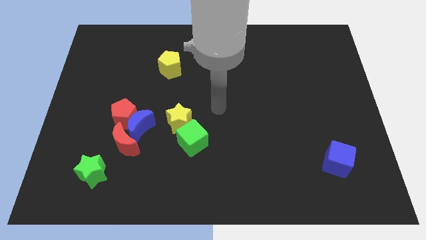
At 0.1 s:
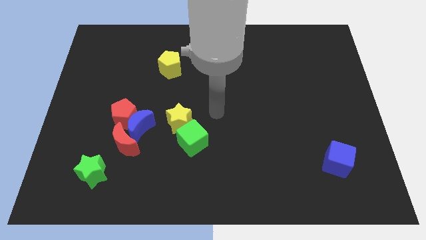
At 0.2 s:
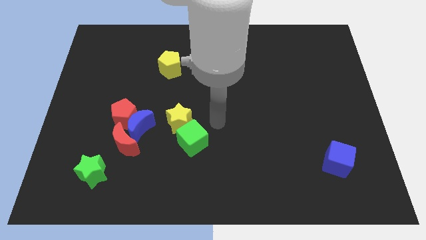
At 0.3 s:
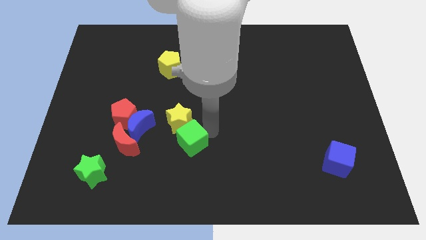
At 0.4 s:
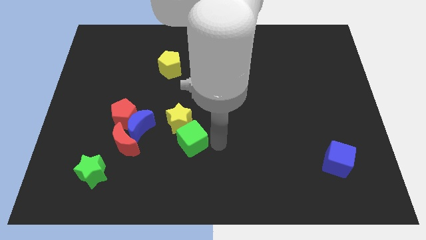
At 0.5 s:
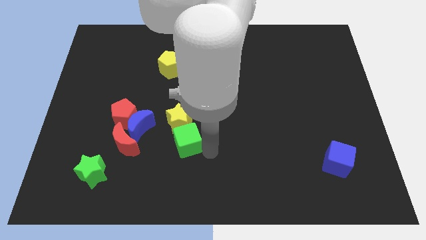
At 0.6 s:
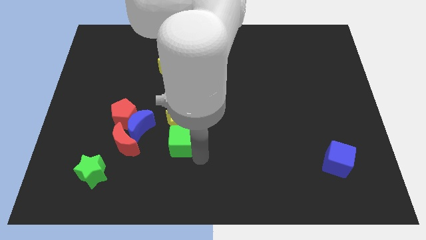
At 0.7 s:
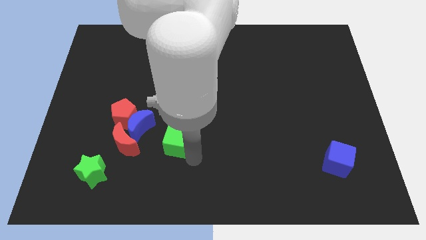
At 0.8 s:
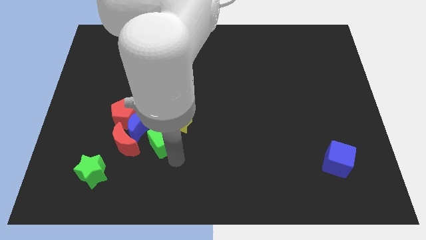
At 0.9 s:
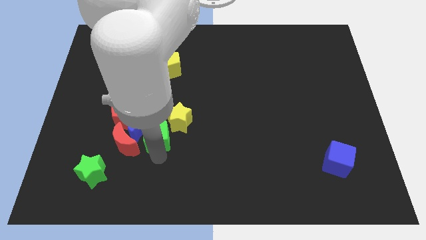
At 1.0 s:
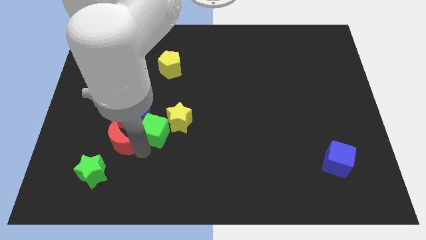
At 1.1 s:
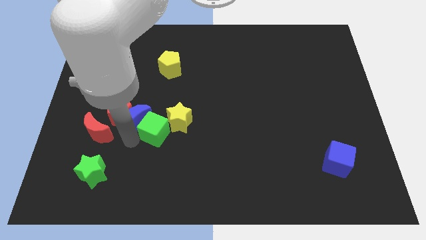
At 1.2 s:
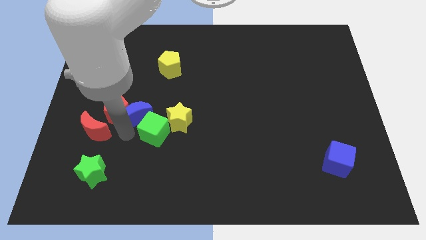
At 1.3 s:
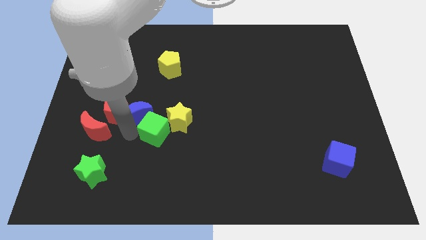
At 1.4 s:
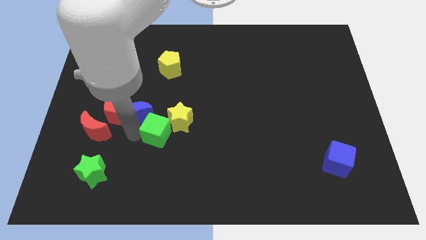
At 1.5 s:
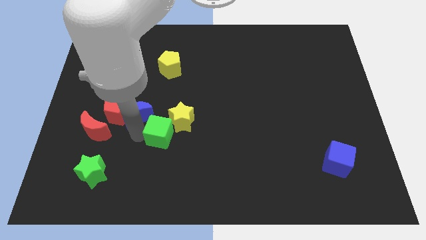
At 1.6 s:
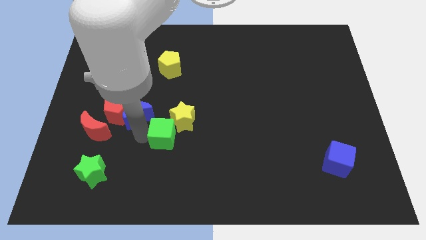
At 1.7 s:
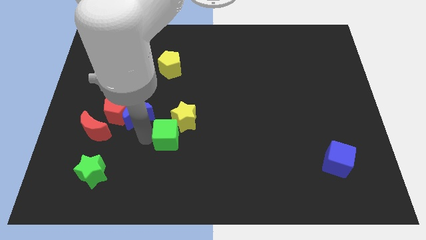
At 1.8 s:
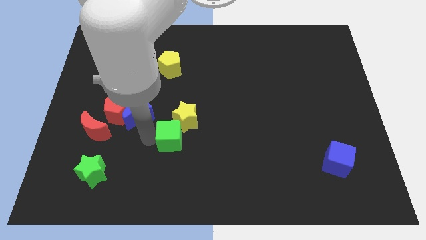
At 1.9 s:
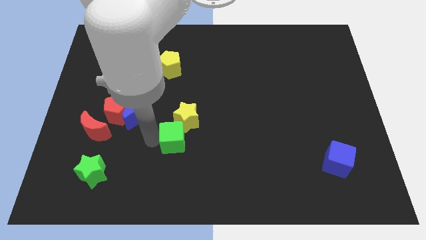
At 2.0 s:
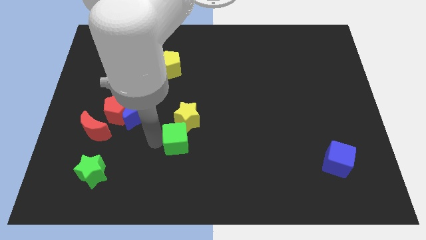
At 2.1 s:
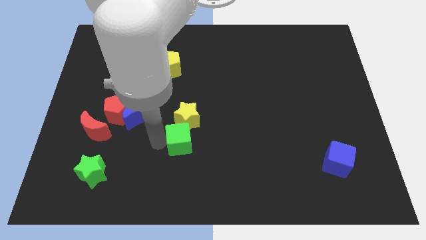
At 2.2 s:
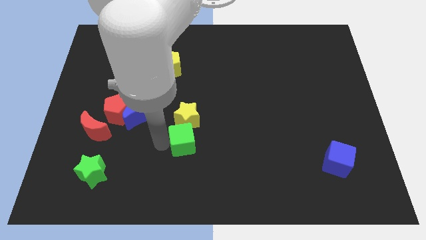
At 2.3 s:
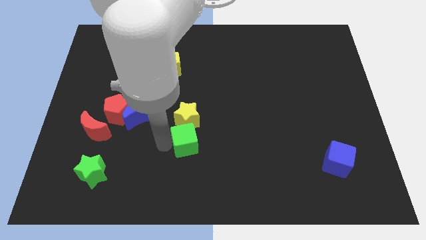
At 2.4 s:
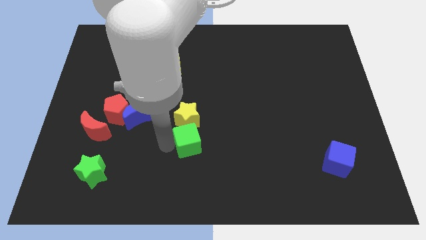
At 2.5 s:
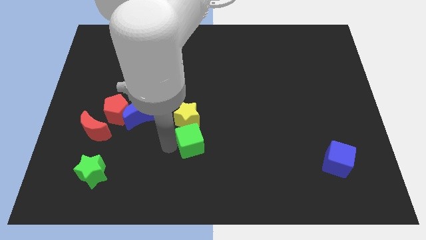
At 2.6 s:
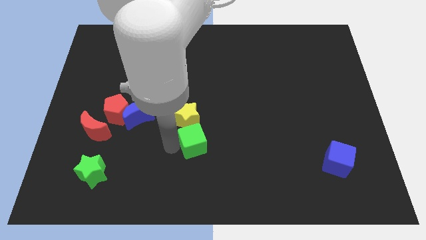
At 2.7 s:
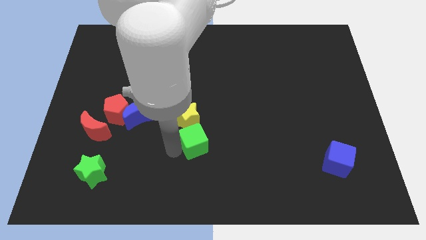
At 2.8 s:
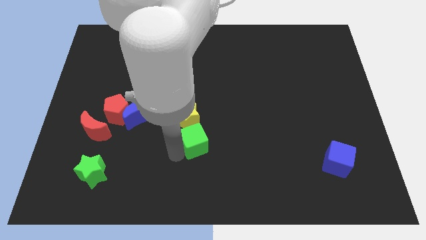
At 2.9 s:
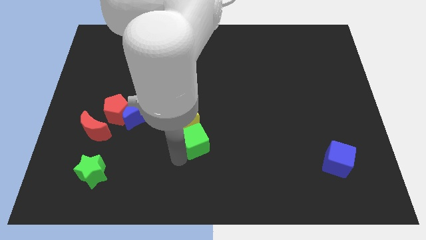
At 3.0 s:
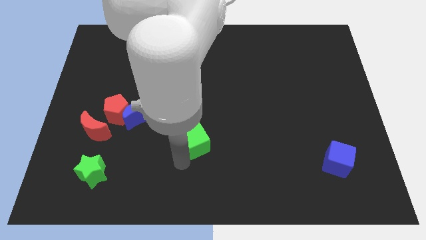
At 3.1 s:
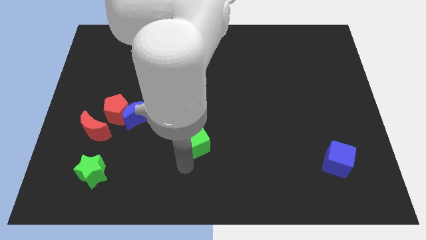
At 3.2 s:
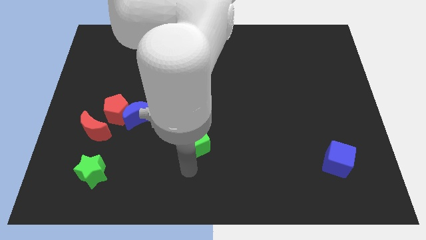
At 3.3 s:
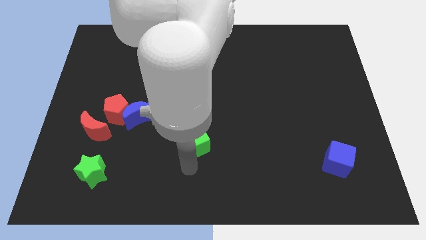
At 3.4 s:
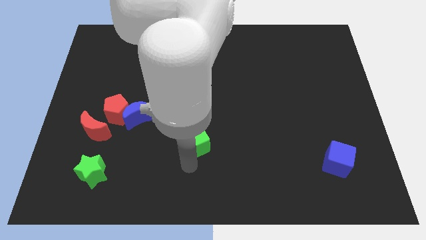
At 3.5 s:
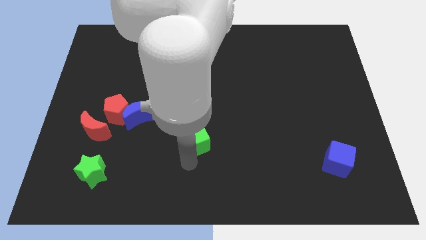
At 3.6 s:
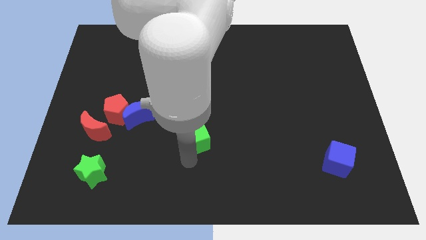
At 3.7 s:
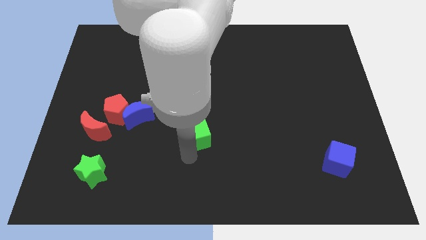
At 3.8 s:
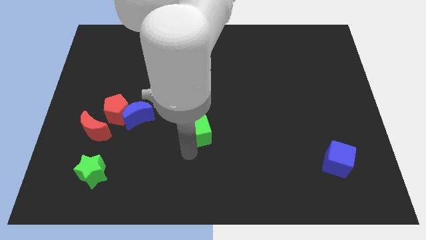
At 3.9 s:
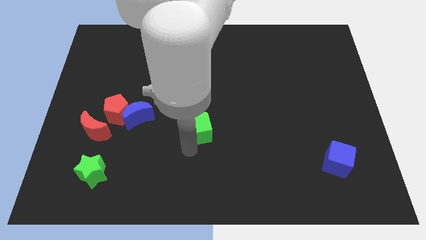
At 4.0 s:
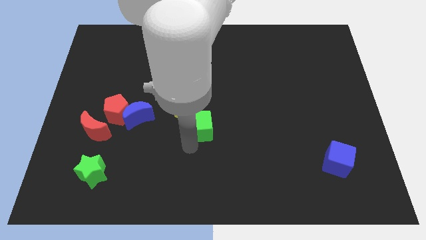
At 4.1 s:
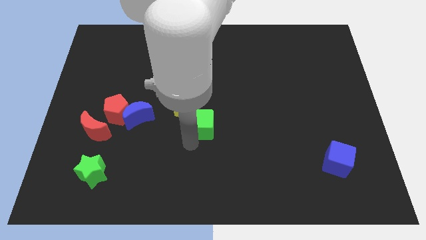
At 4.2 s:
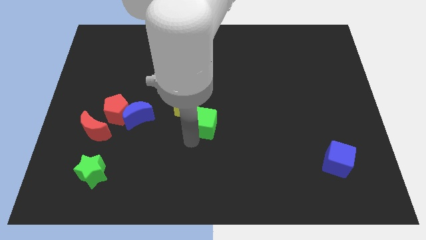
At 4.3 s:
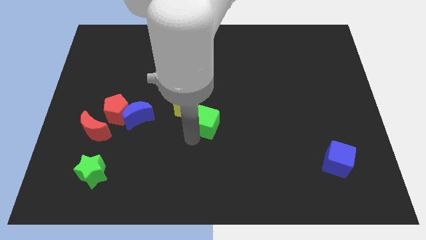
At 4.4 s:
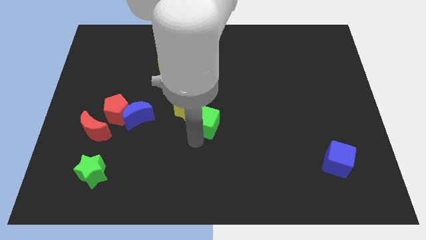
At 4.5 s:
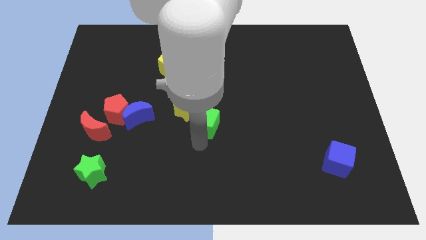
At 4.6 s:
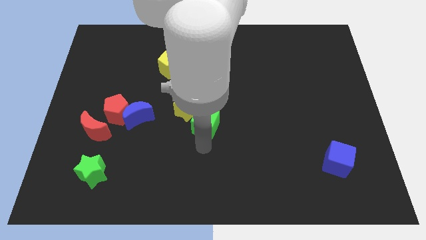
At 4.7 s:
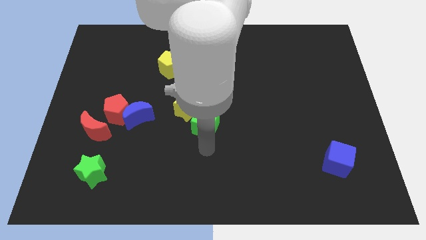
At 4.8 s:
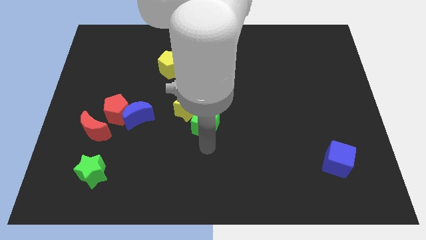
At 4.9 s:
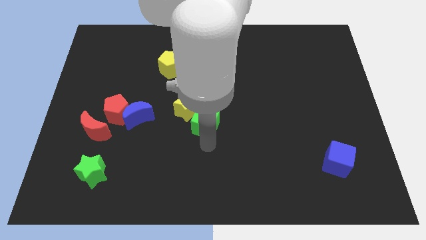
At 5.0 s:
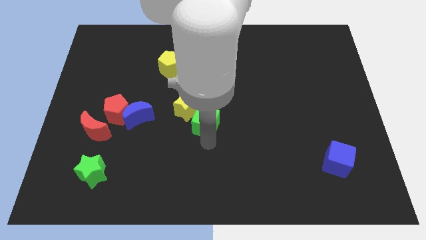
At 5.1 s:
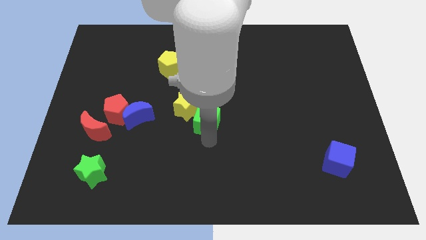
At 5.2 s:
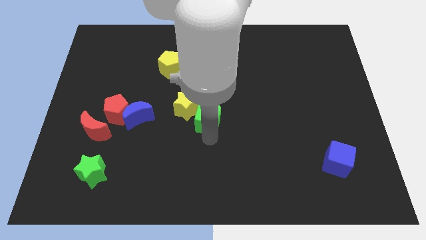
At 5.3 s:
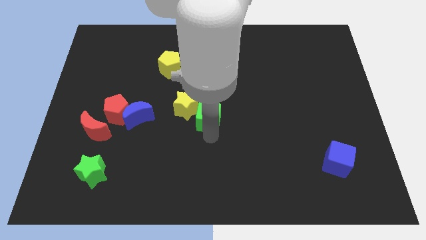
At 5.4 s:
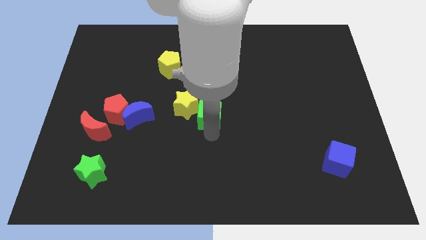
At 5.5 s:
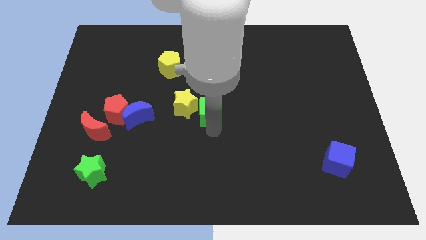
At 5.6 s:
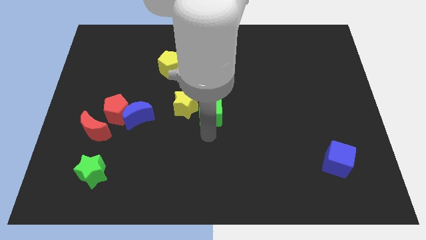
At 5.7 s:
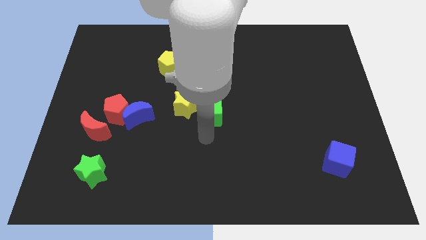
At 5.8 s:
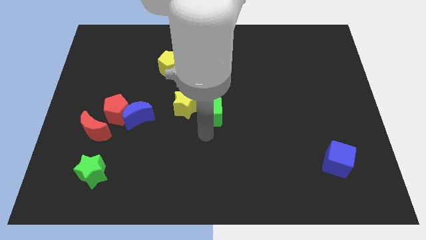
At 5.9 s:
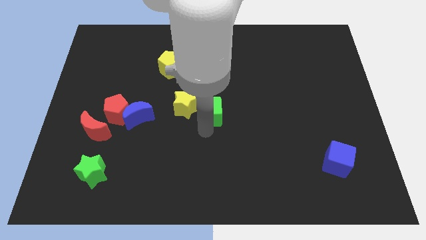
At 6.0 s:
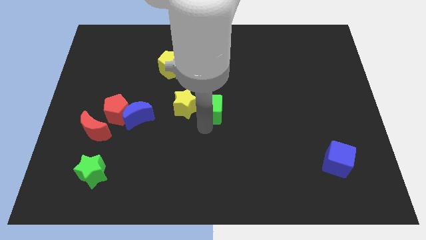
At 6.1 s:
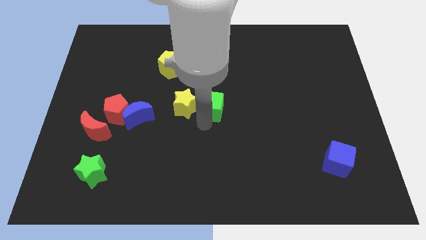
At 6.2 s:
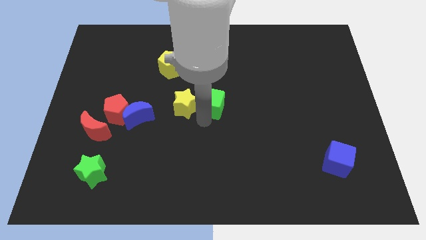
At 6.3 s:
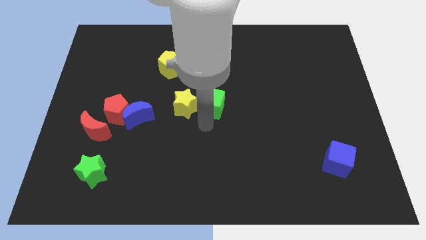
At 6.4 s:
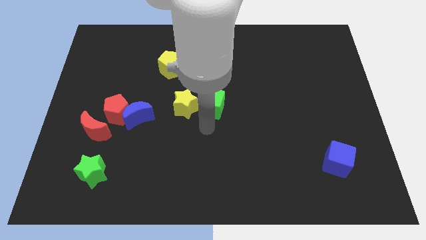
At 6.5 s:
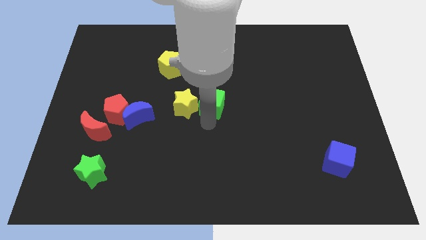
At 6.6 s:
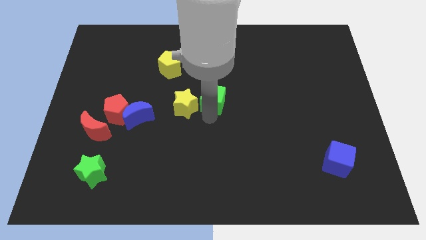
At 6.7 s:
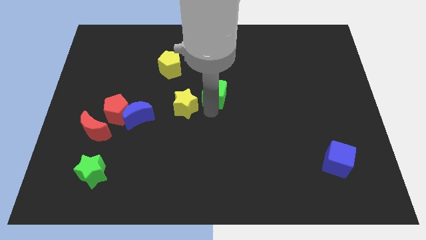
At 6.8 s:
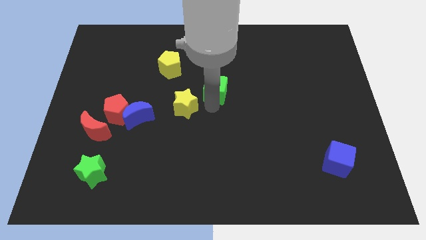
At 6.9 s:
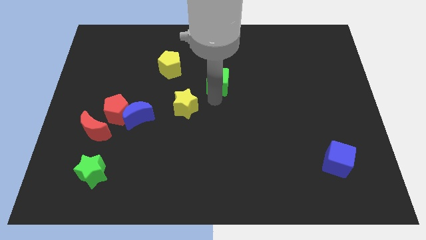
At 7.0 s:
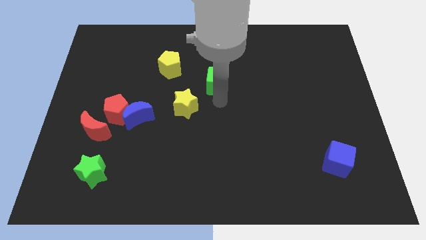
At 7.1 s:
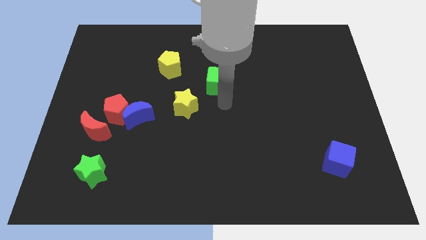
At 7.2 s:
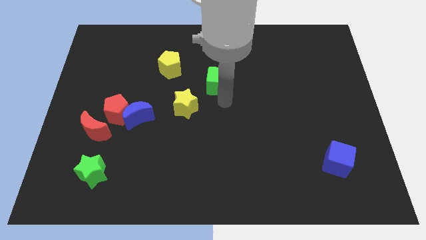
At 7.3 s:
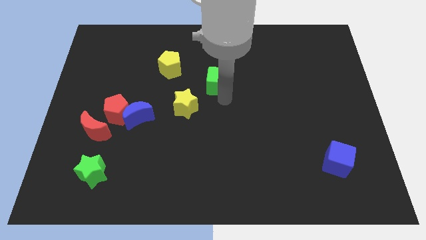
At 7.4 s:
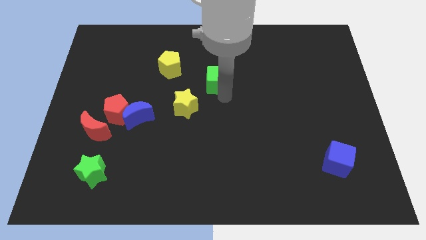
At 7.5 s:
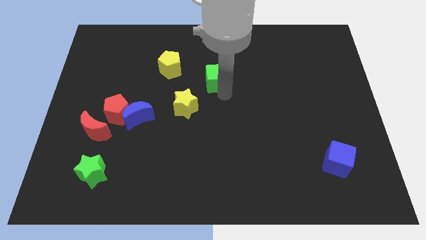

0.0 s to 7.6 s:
move the green cube right of the yellow pentagon

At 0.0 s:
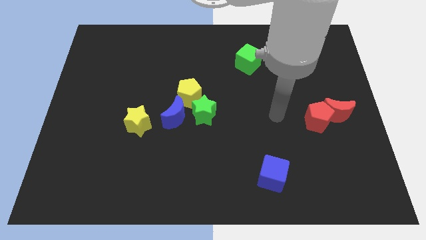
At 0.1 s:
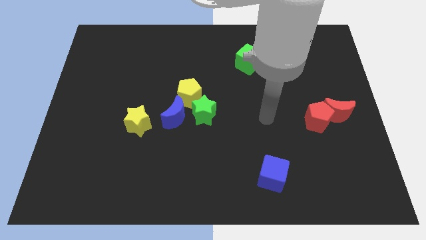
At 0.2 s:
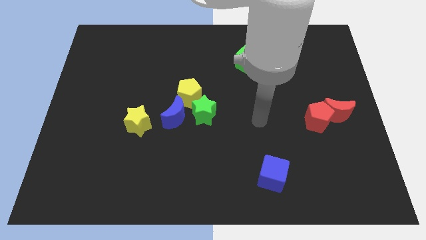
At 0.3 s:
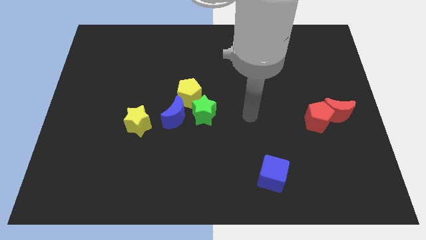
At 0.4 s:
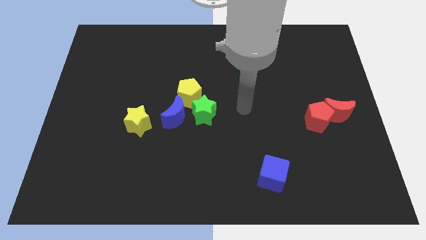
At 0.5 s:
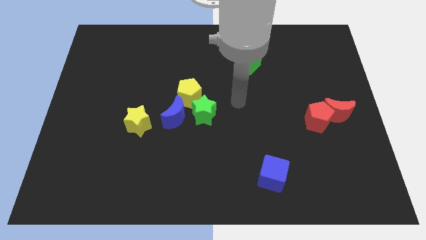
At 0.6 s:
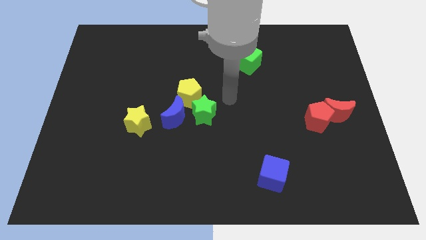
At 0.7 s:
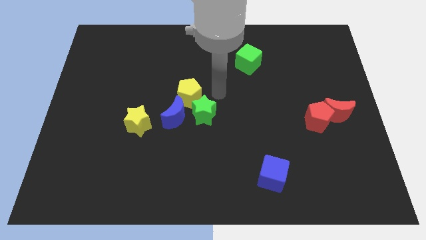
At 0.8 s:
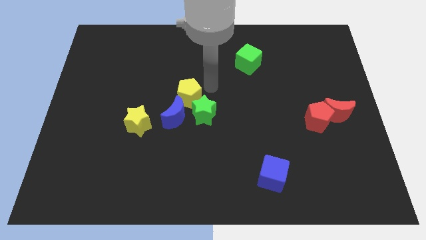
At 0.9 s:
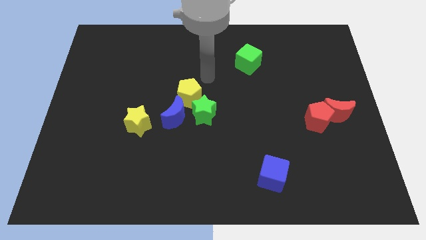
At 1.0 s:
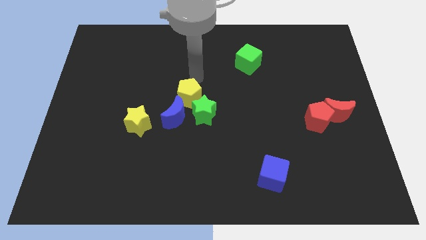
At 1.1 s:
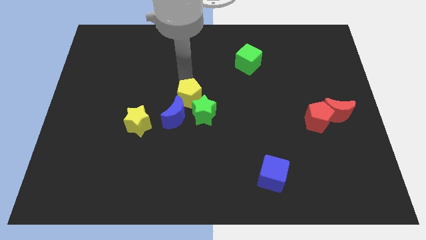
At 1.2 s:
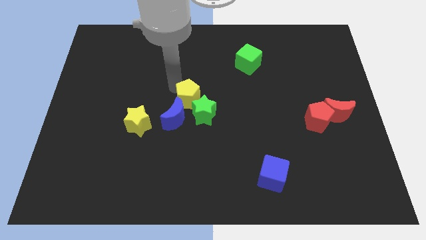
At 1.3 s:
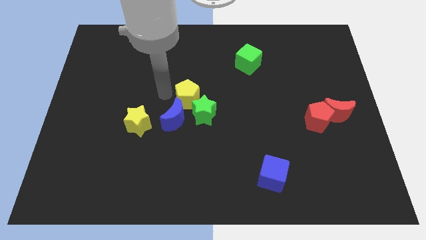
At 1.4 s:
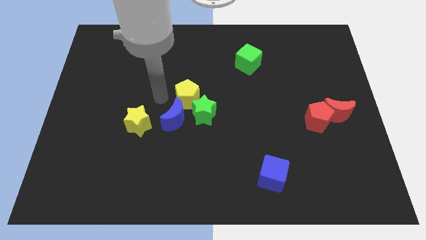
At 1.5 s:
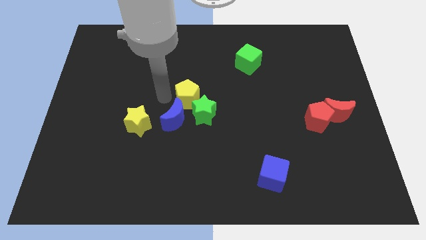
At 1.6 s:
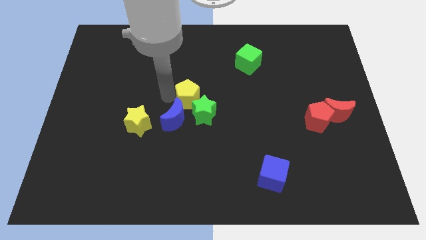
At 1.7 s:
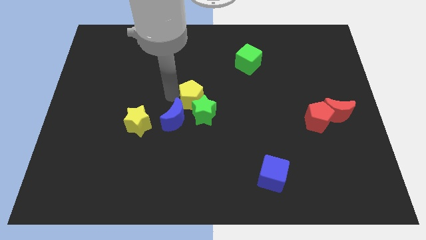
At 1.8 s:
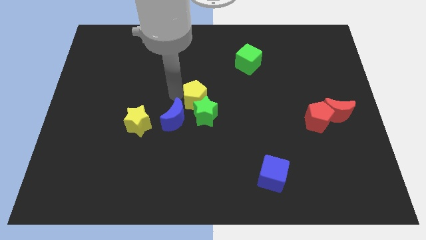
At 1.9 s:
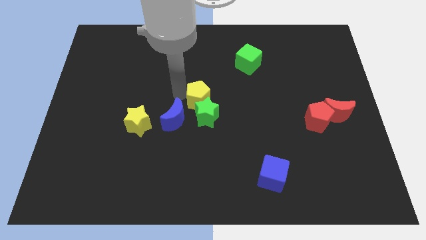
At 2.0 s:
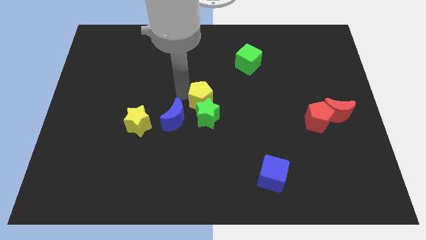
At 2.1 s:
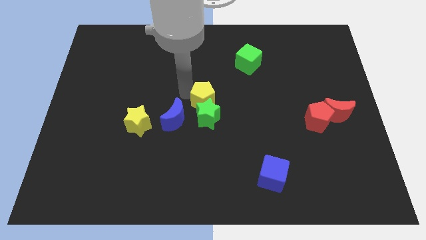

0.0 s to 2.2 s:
move the yellow pentagon to the top right side of the green star
